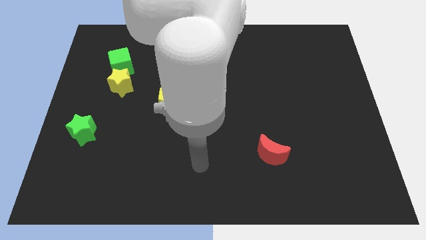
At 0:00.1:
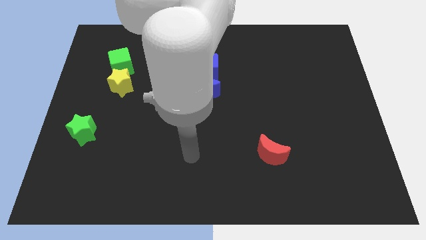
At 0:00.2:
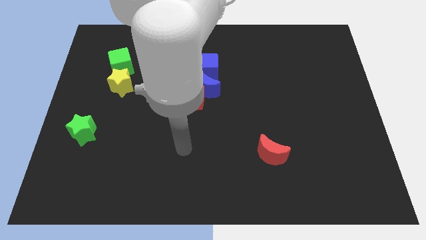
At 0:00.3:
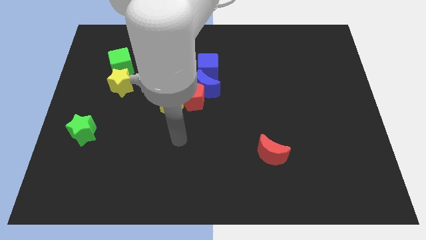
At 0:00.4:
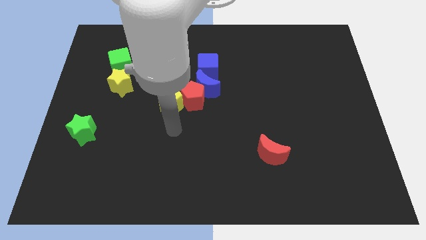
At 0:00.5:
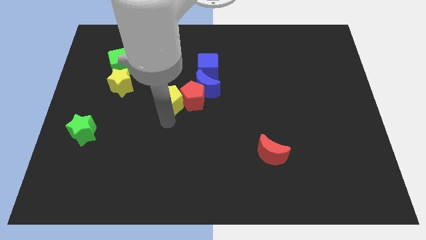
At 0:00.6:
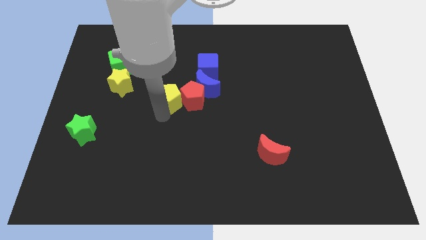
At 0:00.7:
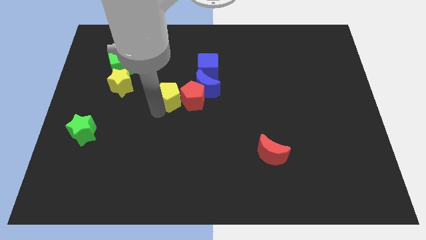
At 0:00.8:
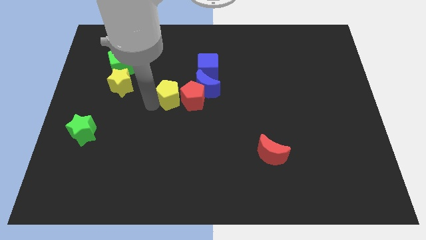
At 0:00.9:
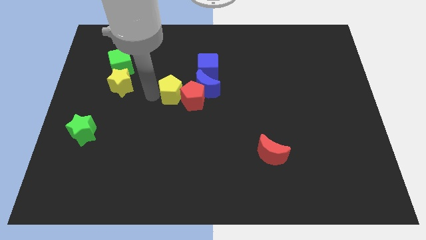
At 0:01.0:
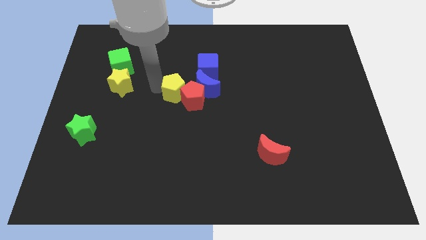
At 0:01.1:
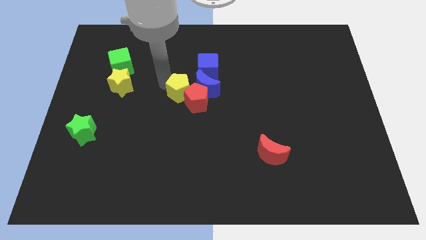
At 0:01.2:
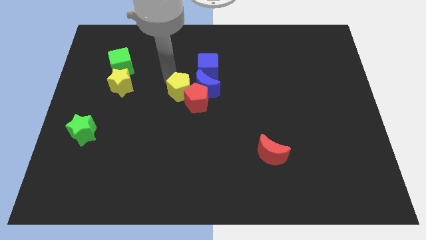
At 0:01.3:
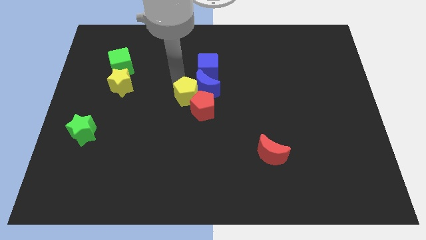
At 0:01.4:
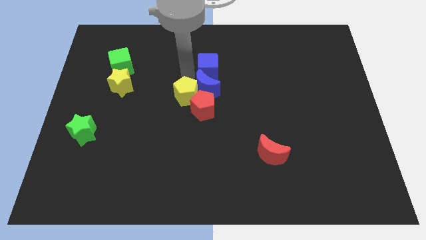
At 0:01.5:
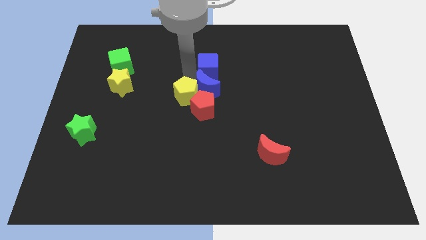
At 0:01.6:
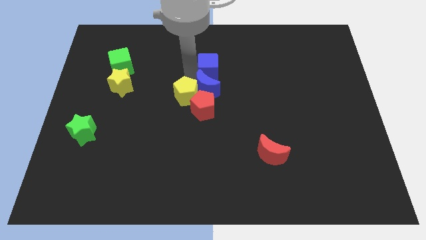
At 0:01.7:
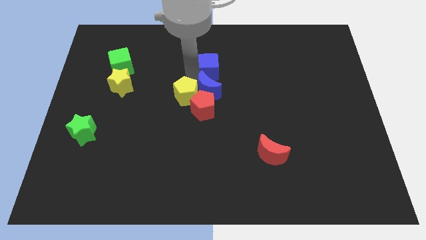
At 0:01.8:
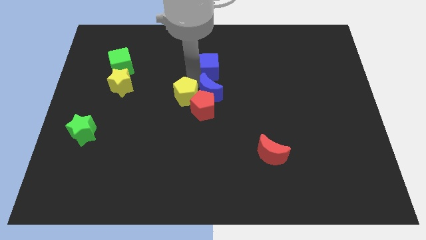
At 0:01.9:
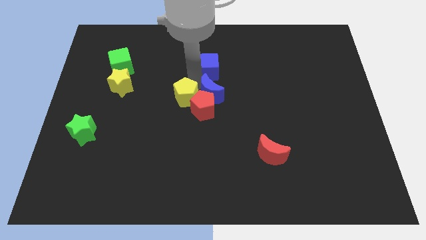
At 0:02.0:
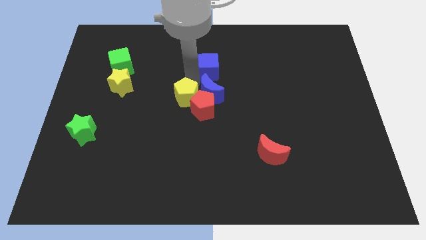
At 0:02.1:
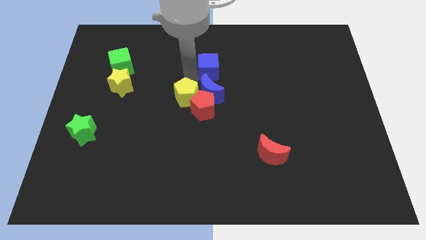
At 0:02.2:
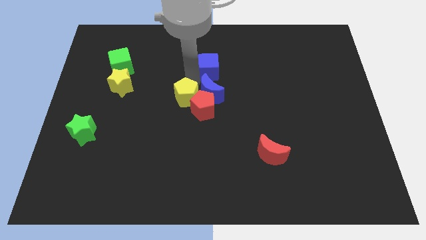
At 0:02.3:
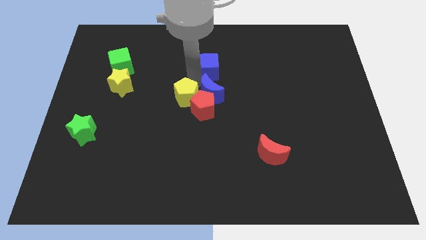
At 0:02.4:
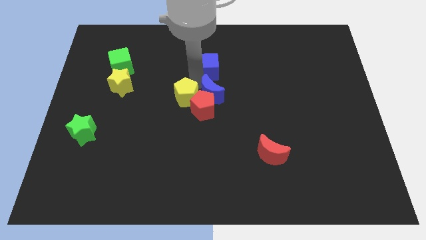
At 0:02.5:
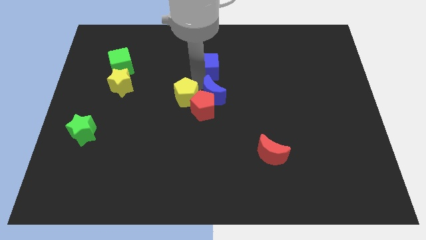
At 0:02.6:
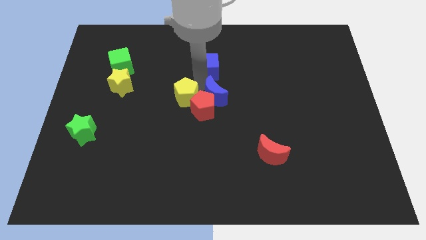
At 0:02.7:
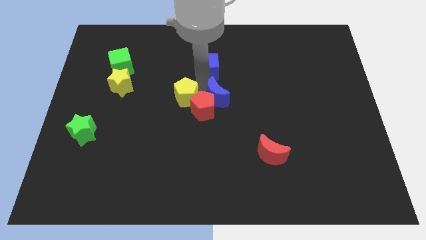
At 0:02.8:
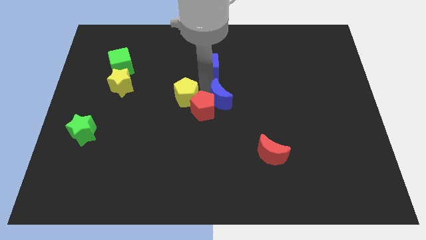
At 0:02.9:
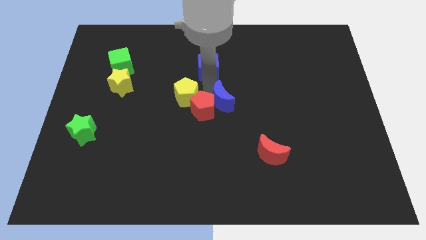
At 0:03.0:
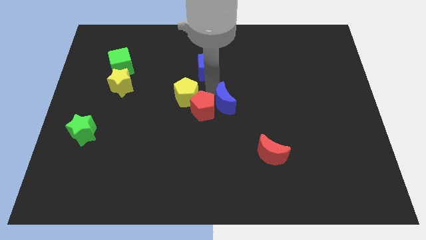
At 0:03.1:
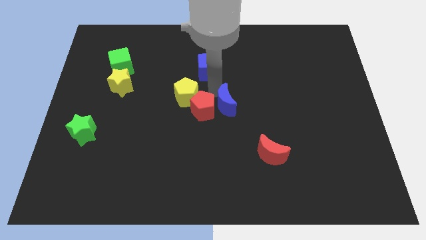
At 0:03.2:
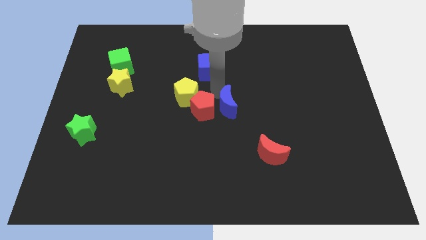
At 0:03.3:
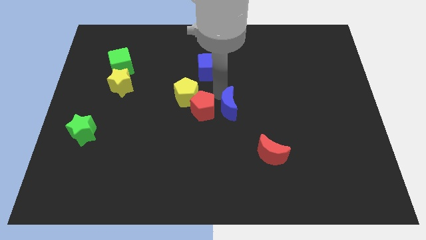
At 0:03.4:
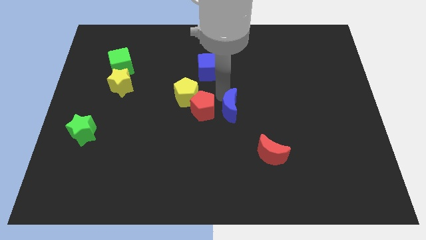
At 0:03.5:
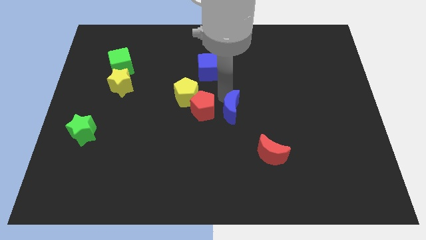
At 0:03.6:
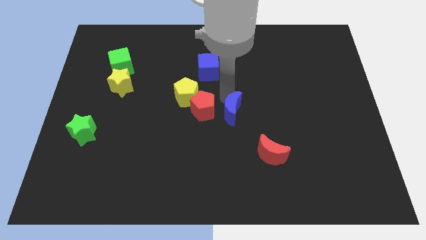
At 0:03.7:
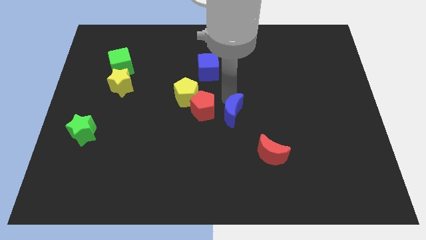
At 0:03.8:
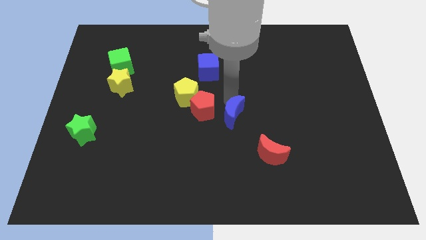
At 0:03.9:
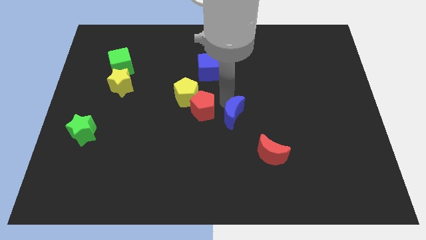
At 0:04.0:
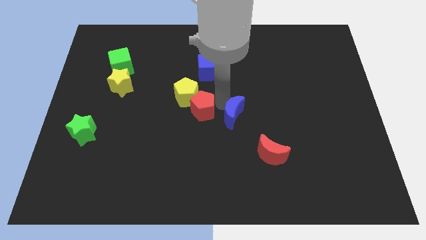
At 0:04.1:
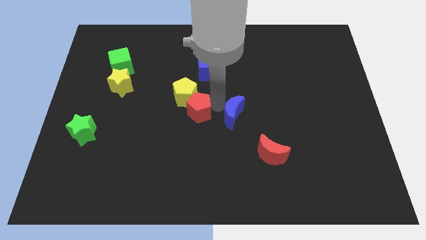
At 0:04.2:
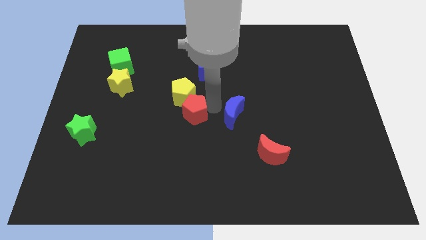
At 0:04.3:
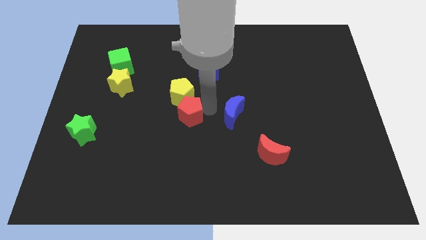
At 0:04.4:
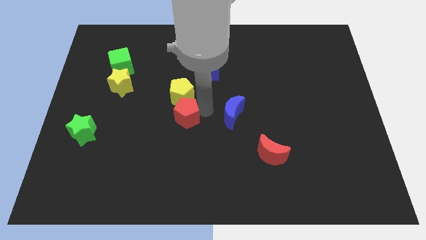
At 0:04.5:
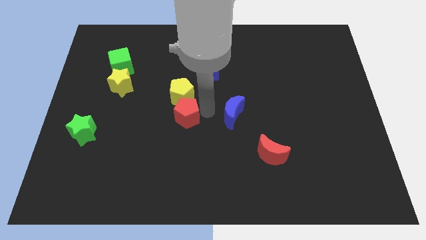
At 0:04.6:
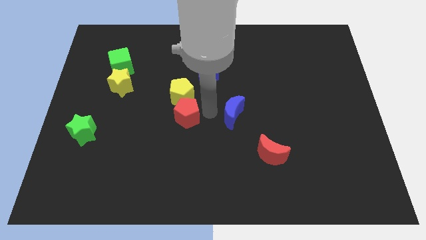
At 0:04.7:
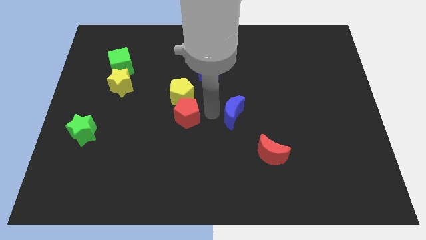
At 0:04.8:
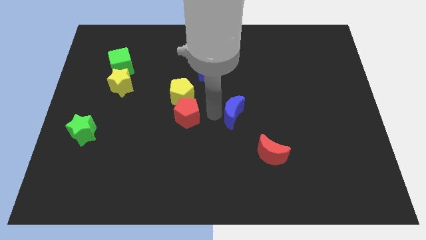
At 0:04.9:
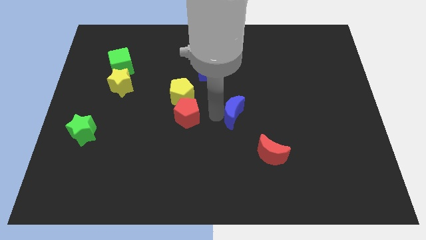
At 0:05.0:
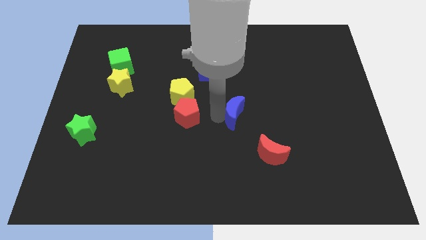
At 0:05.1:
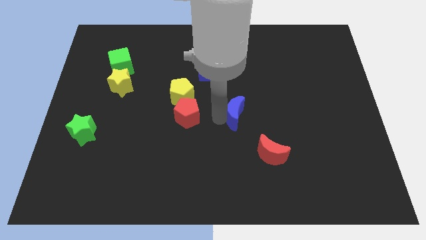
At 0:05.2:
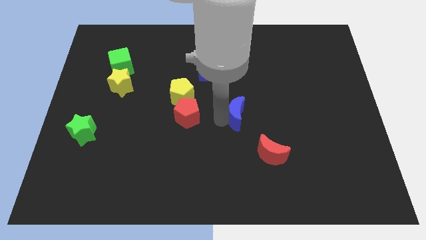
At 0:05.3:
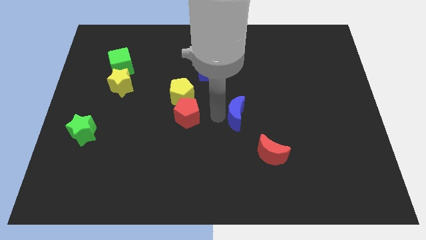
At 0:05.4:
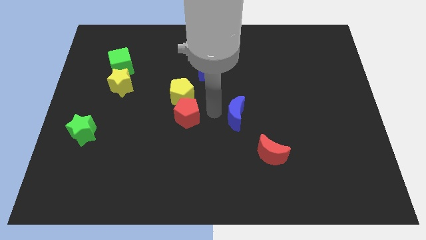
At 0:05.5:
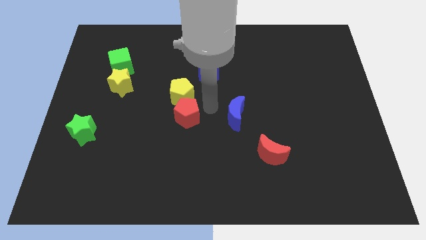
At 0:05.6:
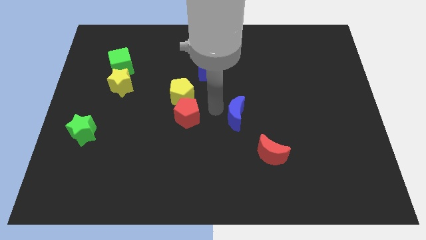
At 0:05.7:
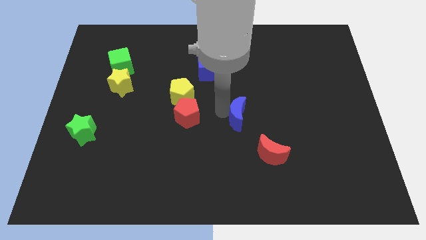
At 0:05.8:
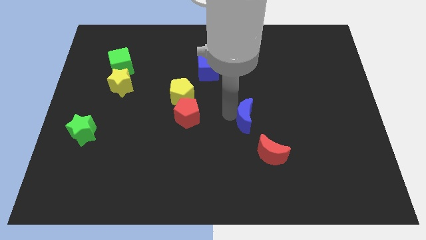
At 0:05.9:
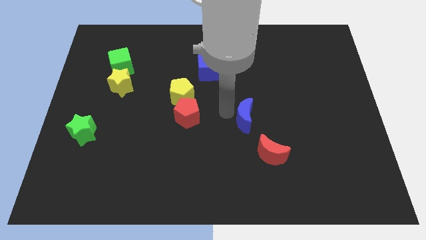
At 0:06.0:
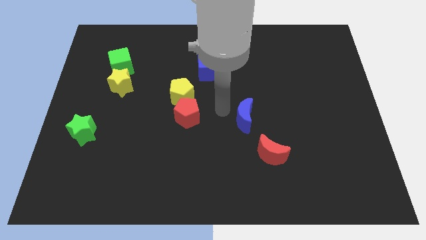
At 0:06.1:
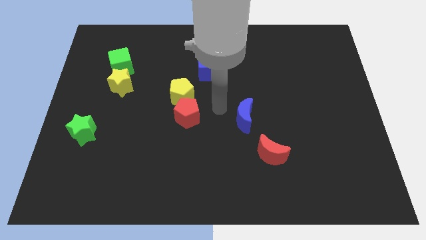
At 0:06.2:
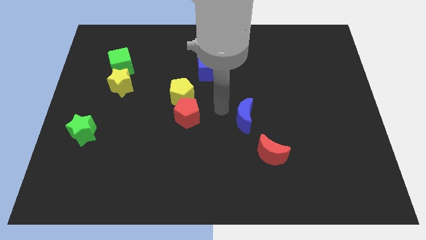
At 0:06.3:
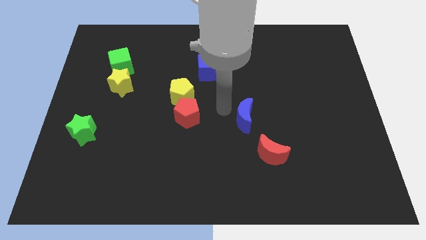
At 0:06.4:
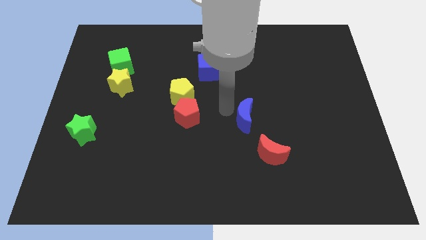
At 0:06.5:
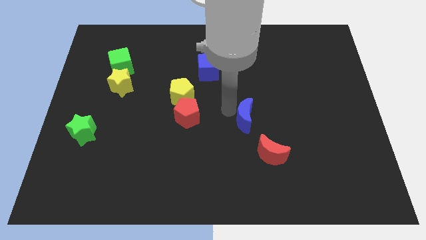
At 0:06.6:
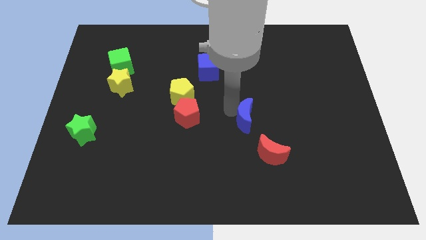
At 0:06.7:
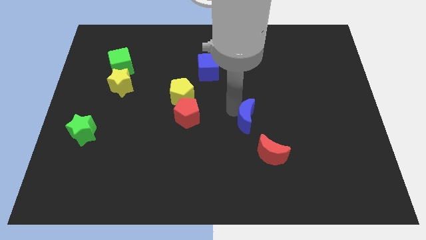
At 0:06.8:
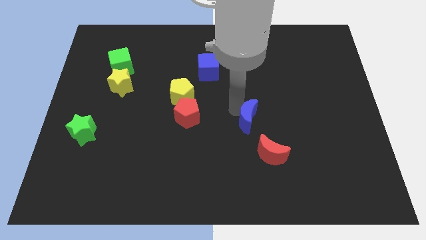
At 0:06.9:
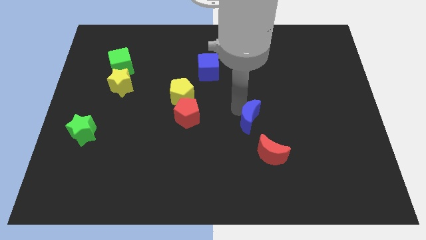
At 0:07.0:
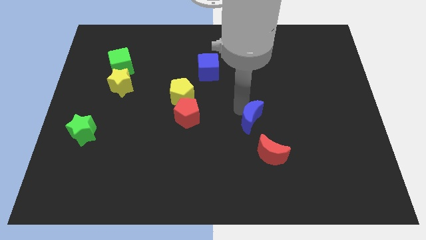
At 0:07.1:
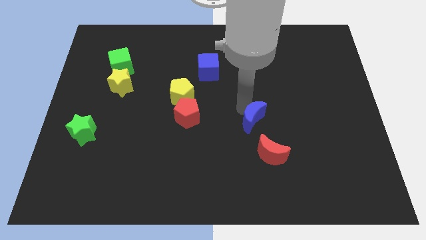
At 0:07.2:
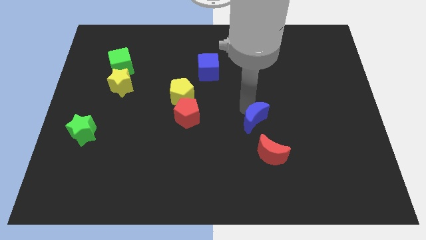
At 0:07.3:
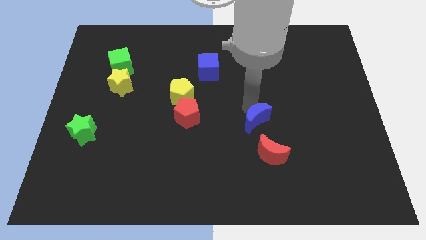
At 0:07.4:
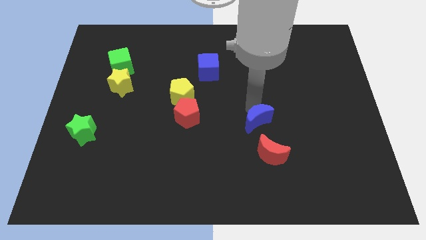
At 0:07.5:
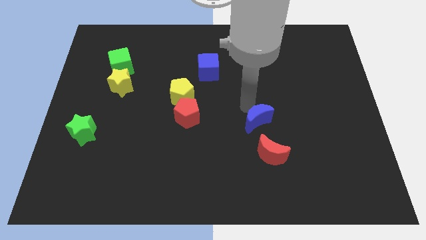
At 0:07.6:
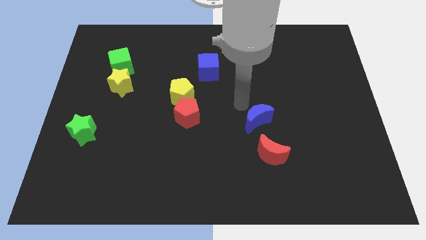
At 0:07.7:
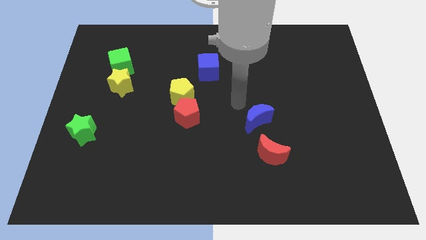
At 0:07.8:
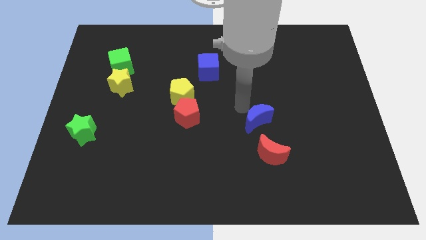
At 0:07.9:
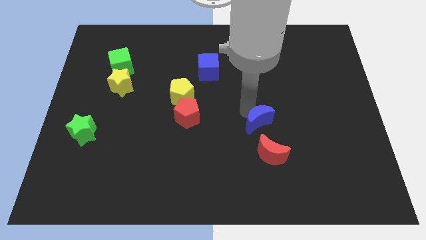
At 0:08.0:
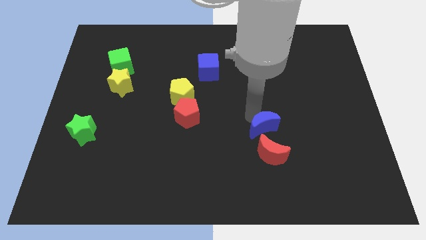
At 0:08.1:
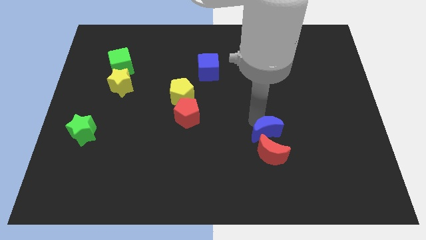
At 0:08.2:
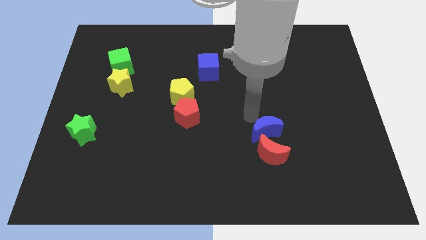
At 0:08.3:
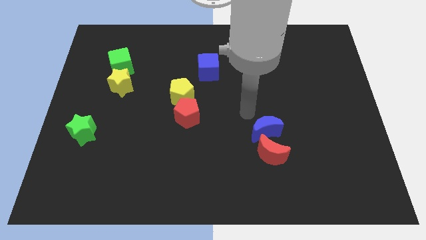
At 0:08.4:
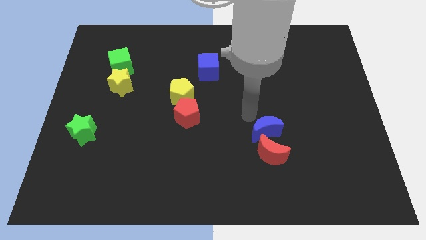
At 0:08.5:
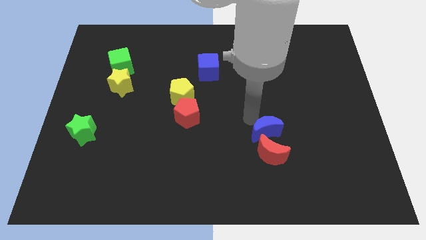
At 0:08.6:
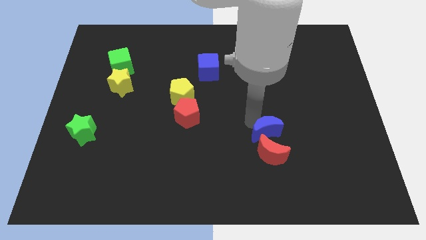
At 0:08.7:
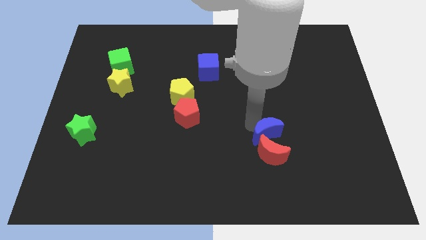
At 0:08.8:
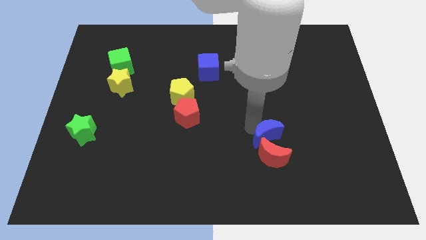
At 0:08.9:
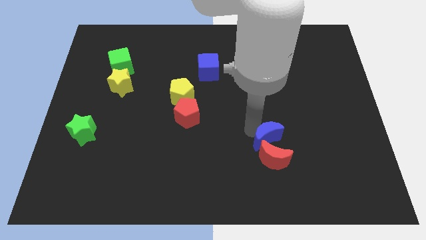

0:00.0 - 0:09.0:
slide the blue moon downwards and right
